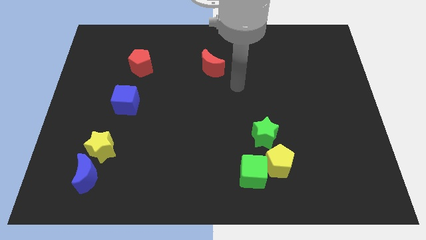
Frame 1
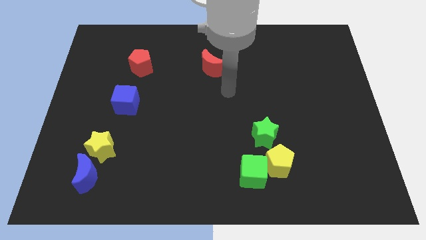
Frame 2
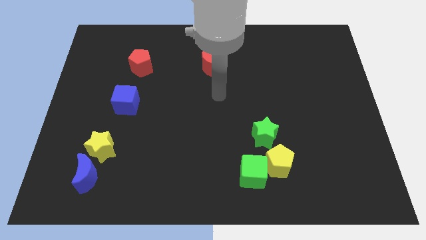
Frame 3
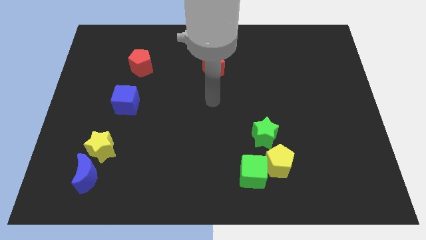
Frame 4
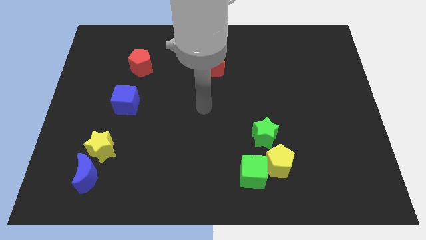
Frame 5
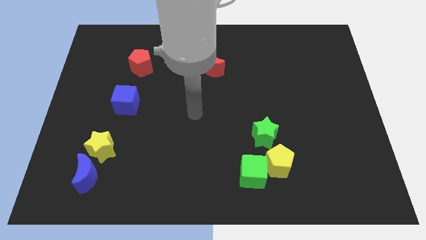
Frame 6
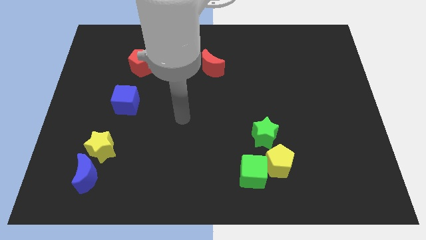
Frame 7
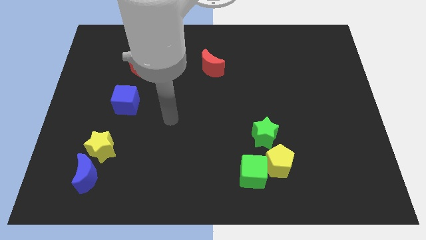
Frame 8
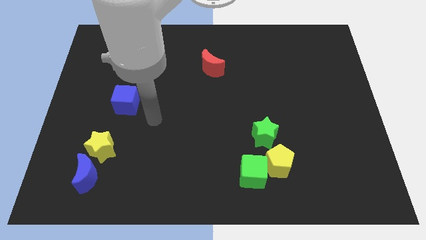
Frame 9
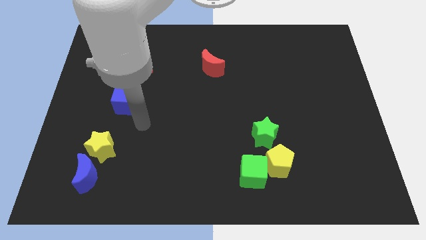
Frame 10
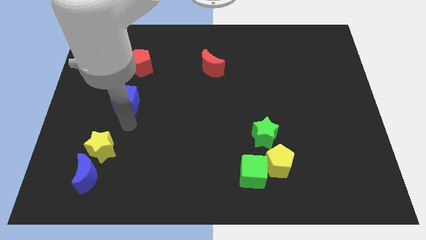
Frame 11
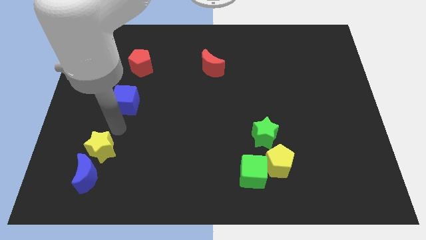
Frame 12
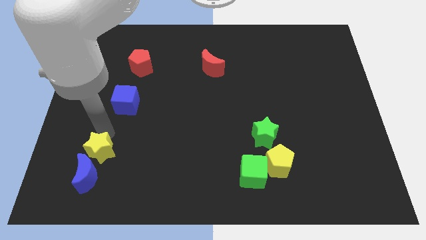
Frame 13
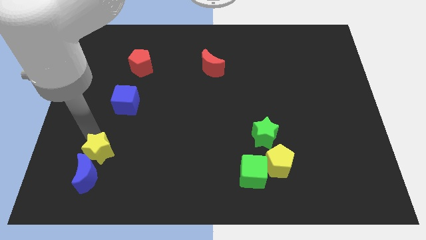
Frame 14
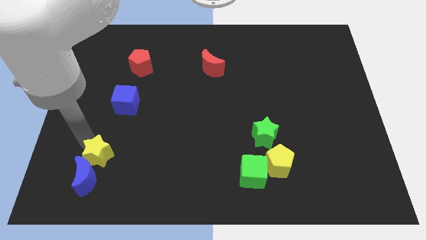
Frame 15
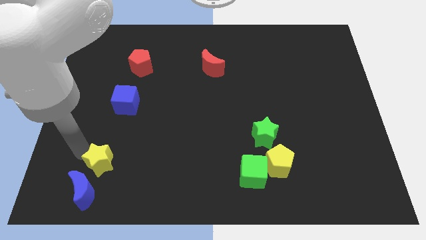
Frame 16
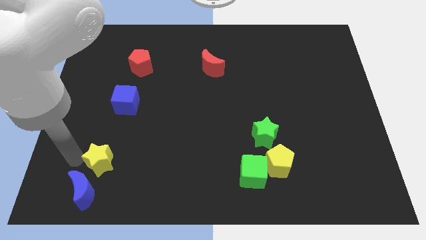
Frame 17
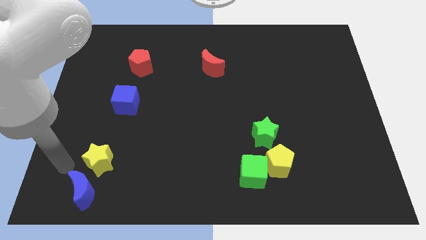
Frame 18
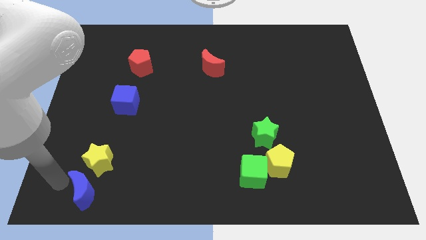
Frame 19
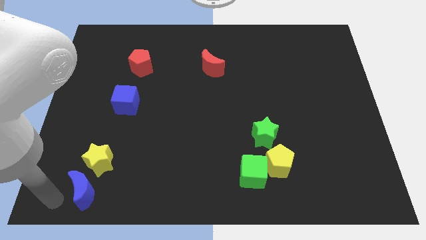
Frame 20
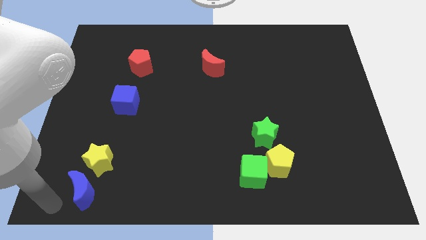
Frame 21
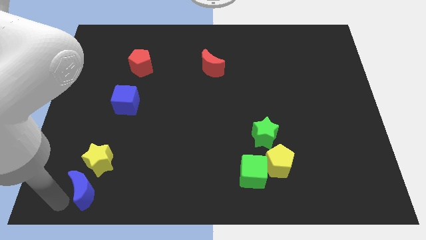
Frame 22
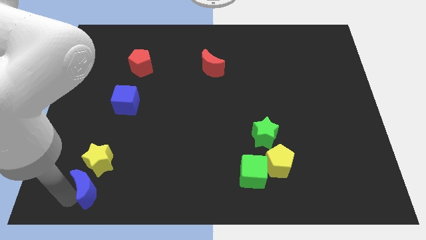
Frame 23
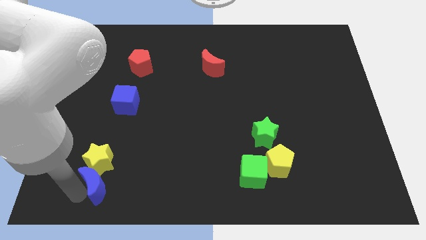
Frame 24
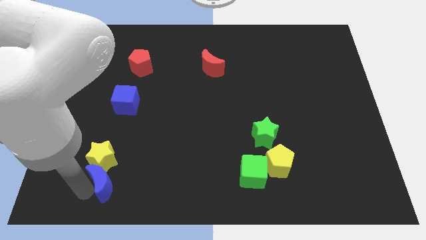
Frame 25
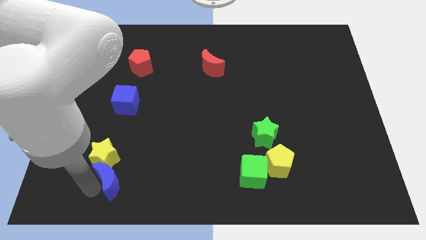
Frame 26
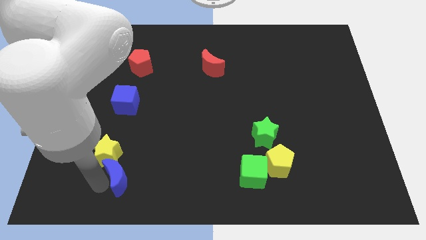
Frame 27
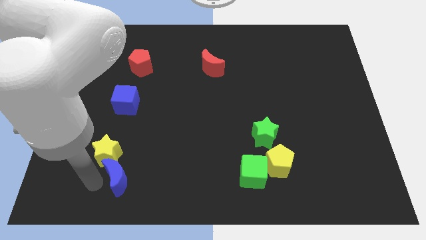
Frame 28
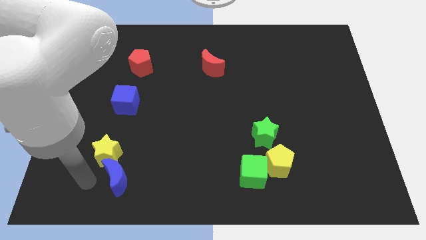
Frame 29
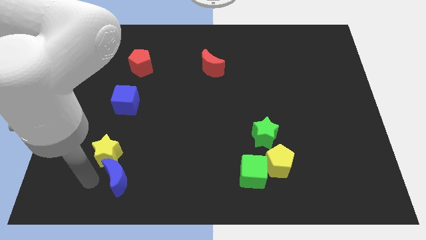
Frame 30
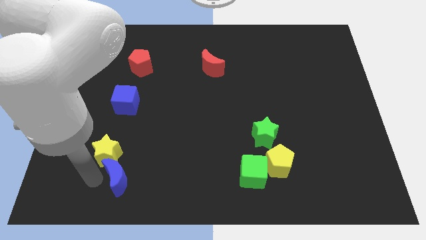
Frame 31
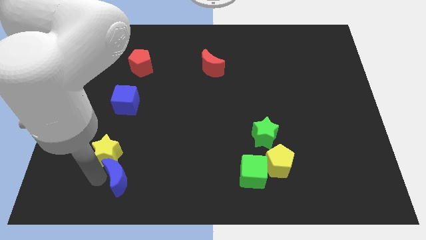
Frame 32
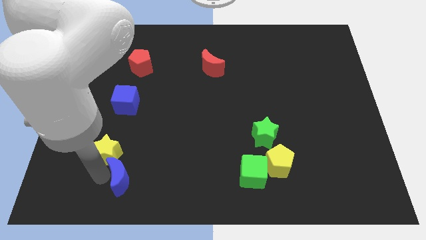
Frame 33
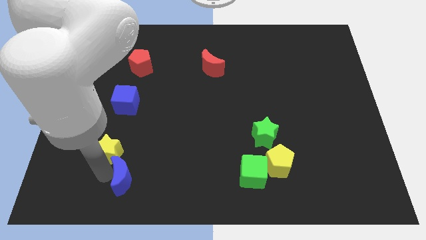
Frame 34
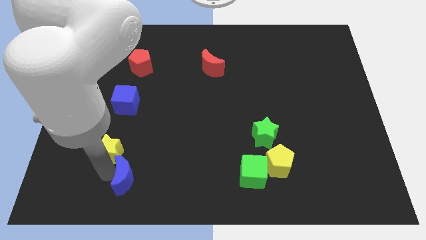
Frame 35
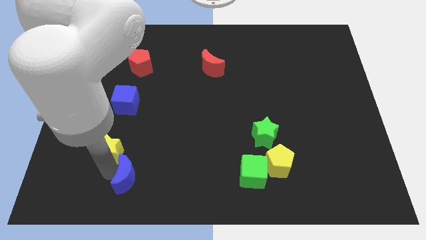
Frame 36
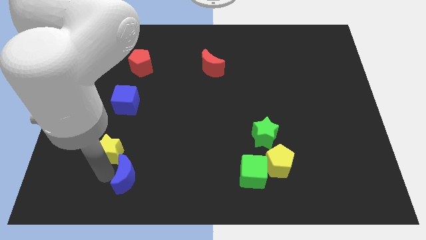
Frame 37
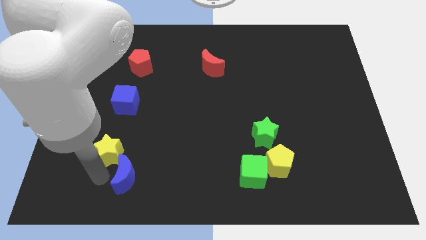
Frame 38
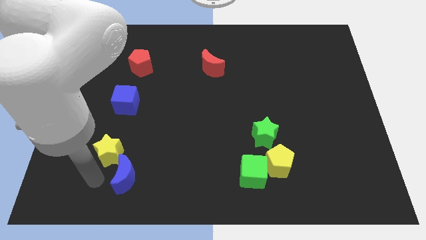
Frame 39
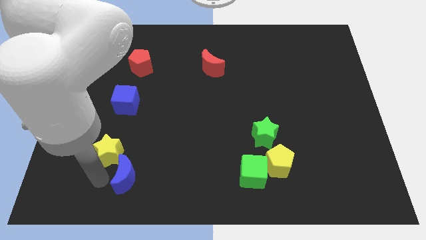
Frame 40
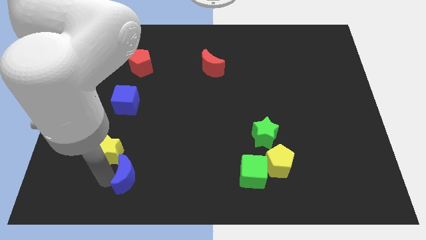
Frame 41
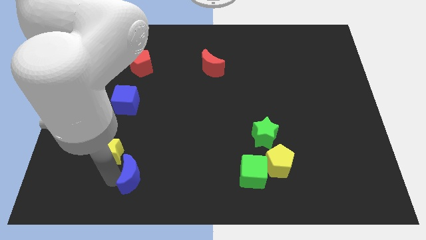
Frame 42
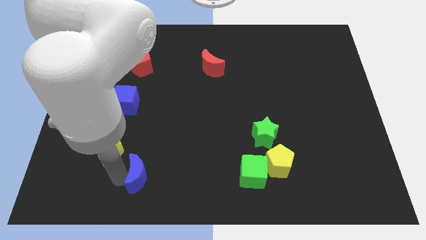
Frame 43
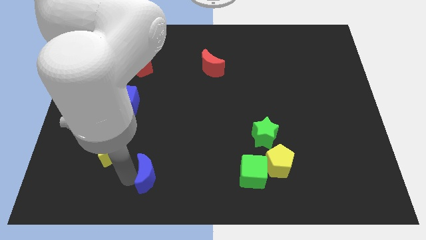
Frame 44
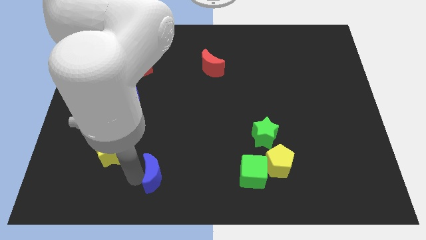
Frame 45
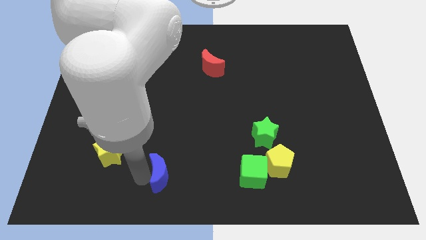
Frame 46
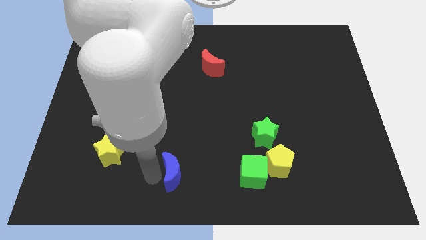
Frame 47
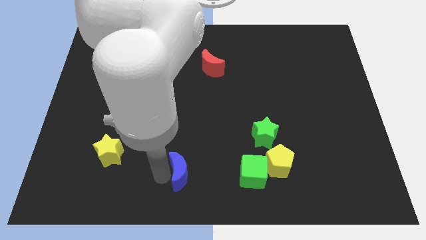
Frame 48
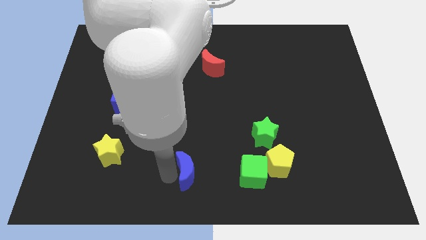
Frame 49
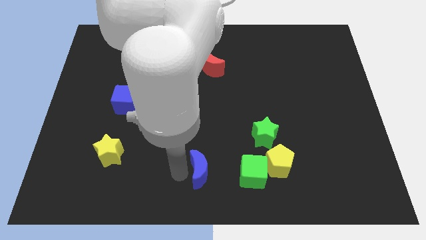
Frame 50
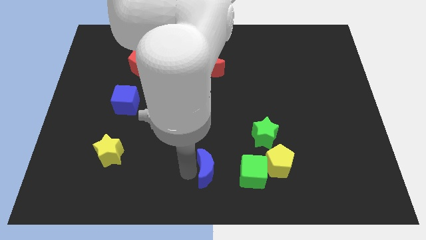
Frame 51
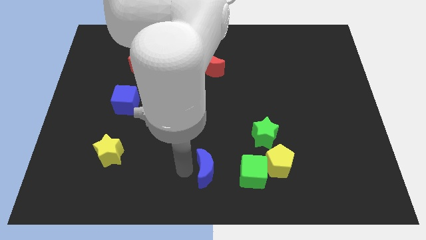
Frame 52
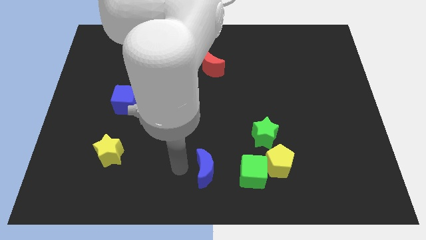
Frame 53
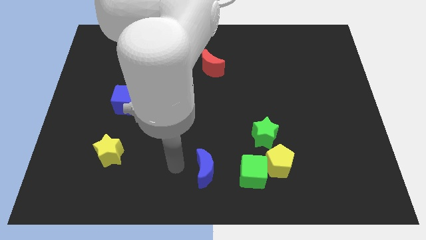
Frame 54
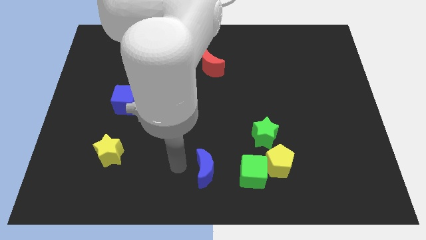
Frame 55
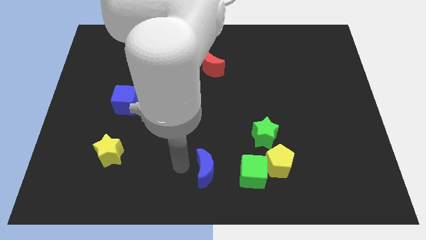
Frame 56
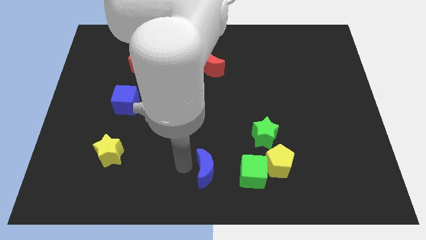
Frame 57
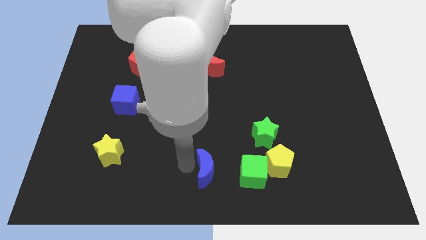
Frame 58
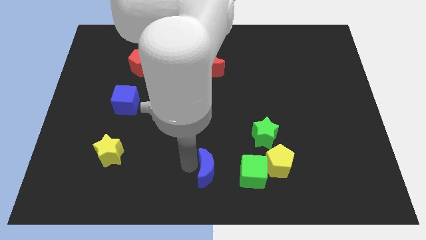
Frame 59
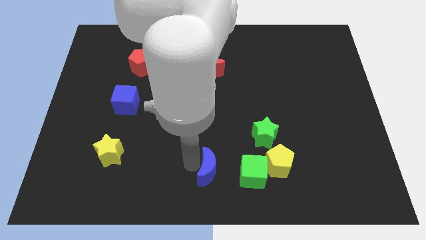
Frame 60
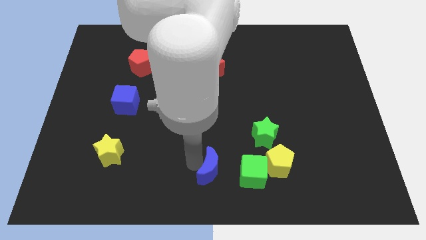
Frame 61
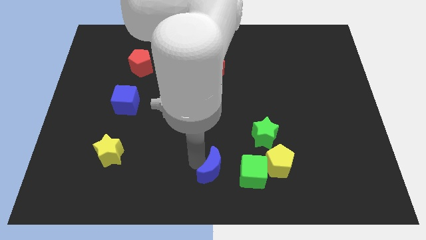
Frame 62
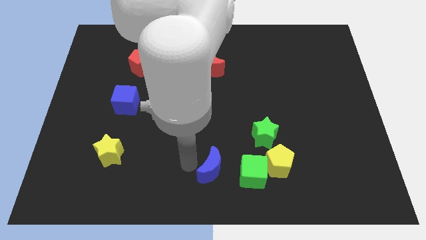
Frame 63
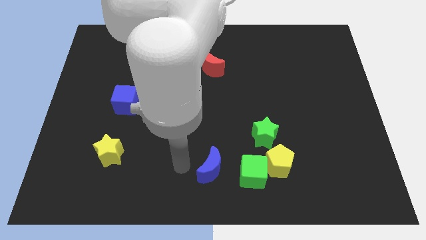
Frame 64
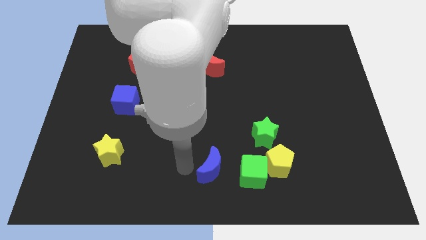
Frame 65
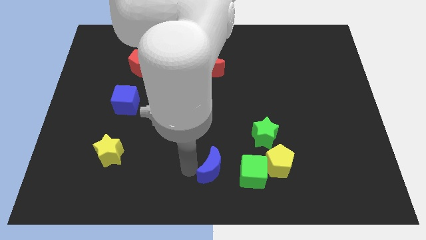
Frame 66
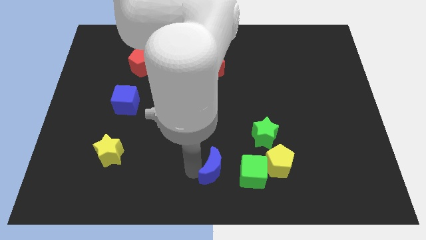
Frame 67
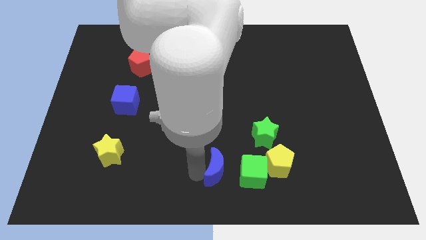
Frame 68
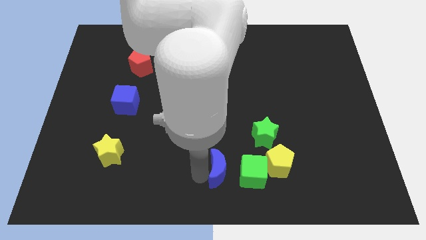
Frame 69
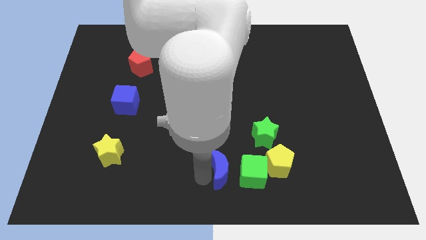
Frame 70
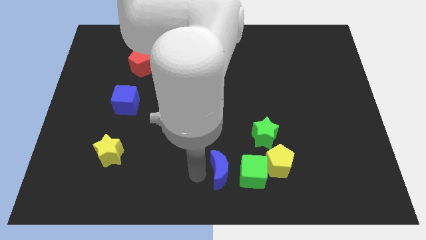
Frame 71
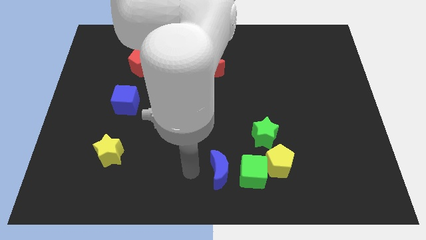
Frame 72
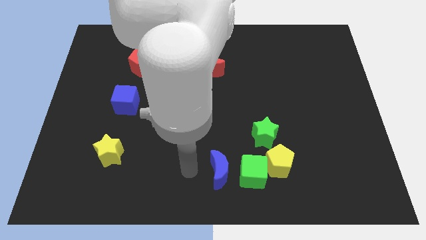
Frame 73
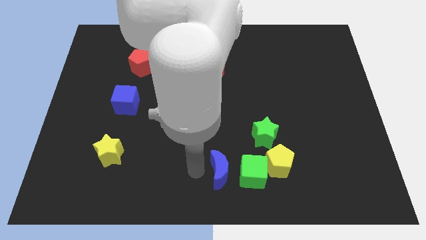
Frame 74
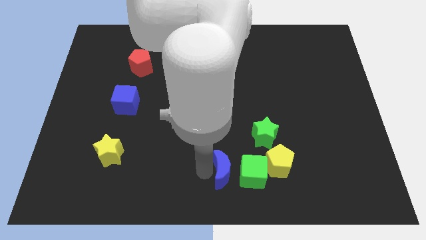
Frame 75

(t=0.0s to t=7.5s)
move the blue moon to the green cube
